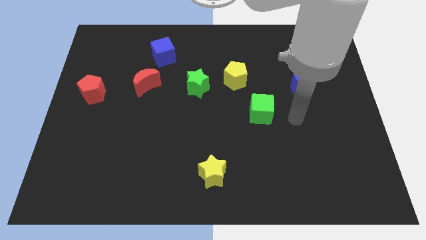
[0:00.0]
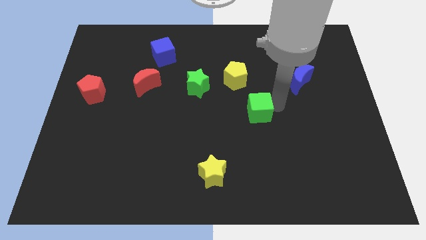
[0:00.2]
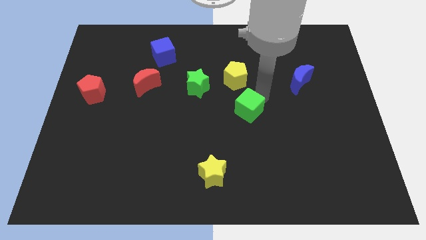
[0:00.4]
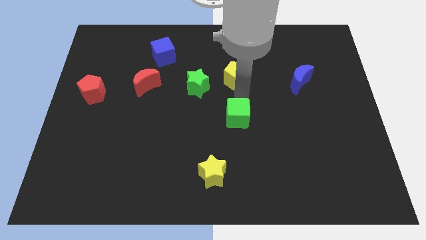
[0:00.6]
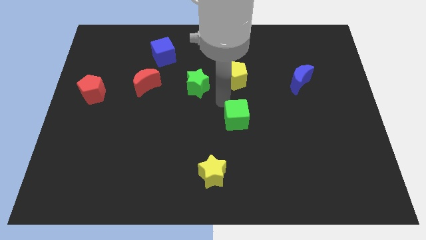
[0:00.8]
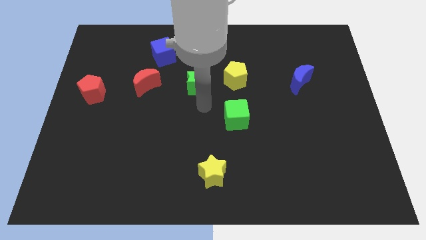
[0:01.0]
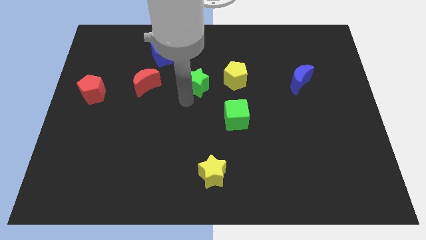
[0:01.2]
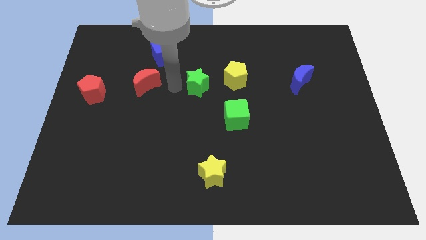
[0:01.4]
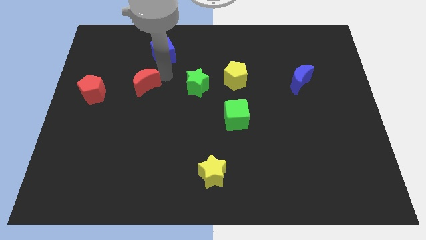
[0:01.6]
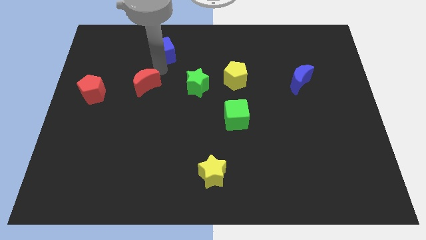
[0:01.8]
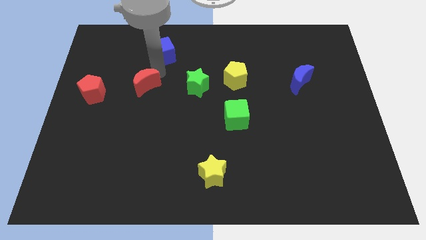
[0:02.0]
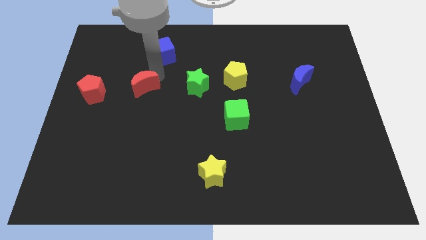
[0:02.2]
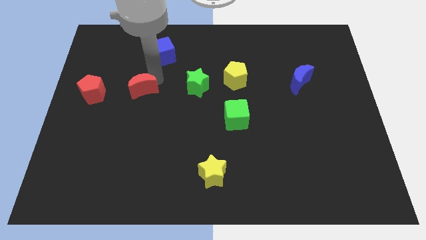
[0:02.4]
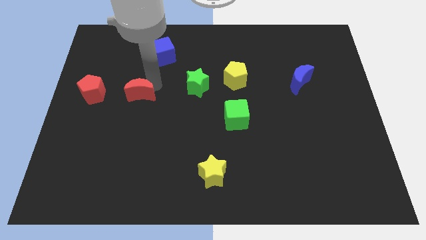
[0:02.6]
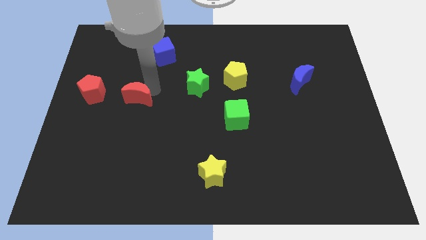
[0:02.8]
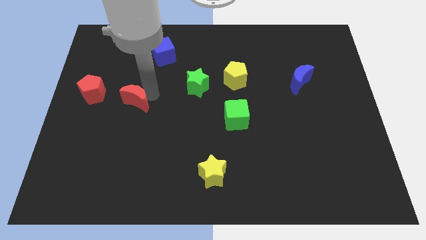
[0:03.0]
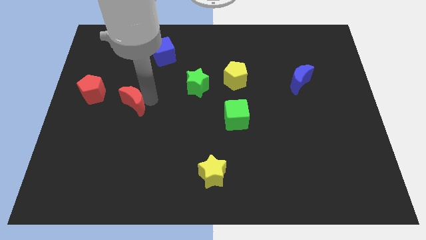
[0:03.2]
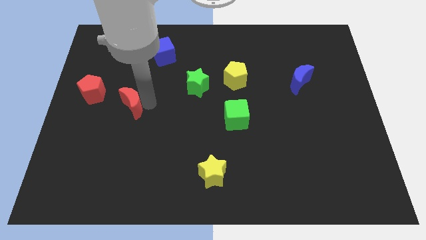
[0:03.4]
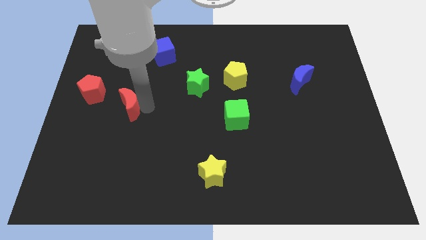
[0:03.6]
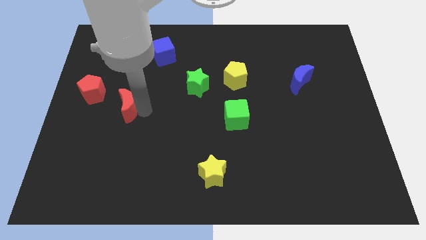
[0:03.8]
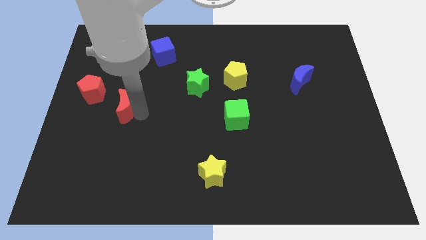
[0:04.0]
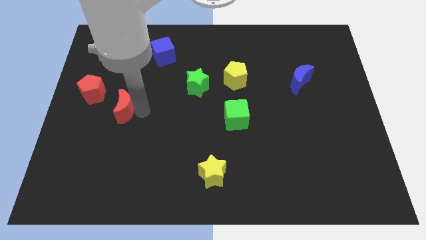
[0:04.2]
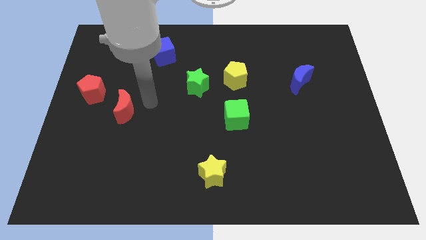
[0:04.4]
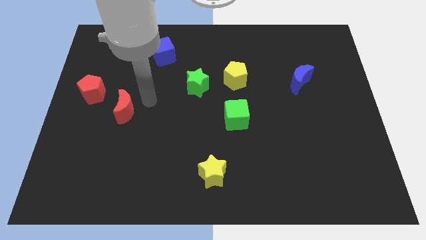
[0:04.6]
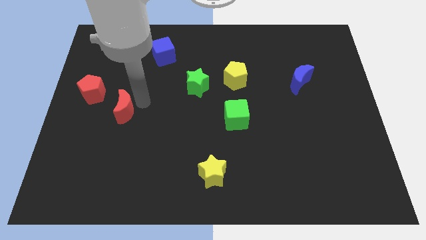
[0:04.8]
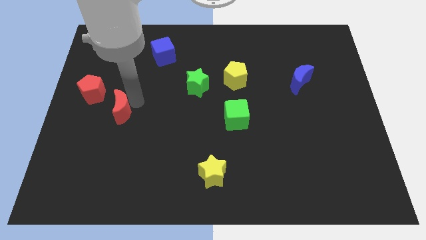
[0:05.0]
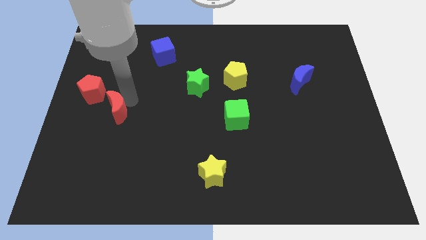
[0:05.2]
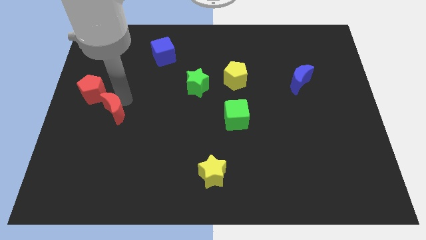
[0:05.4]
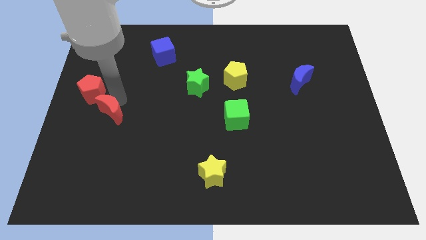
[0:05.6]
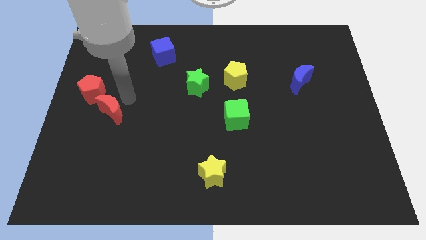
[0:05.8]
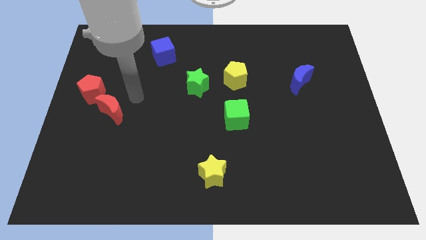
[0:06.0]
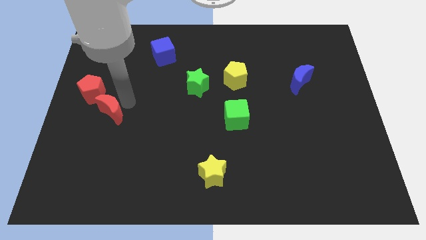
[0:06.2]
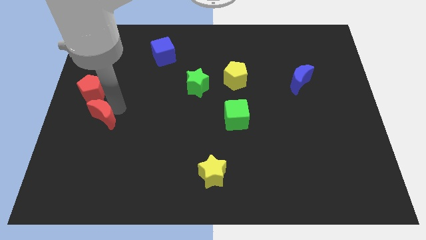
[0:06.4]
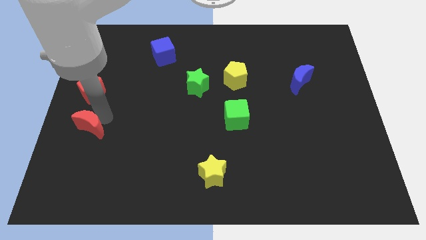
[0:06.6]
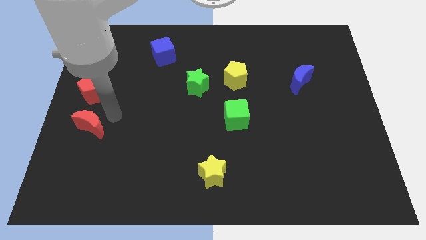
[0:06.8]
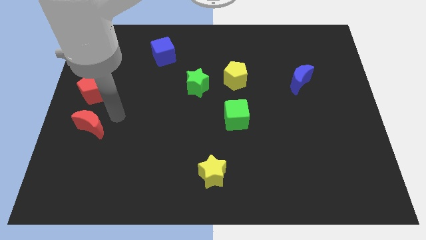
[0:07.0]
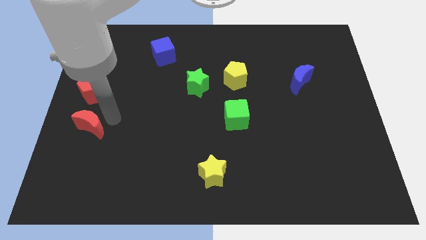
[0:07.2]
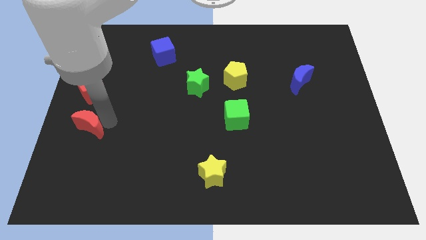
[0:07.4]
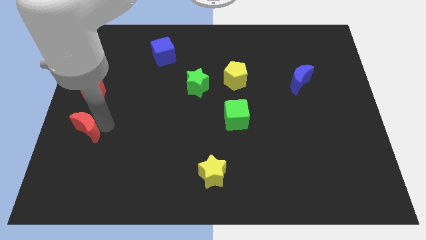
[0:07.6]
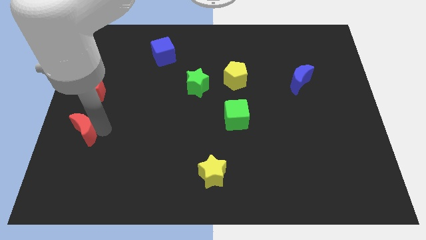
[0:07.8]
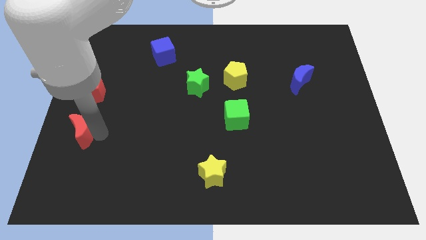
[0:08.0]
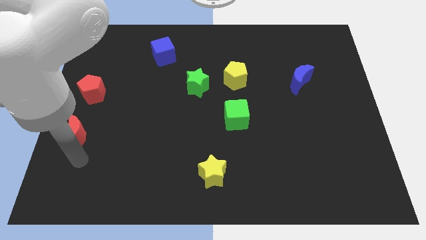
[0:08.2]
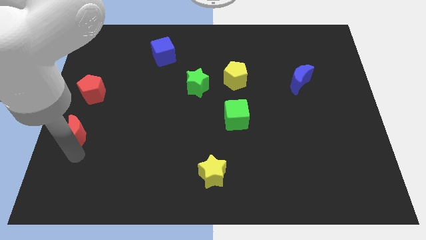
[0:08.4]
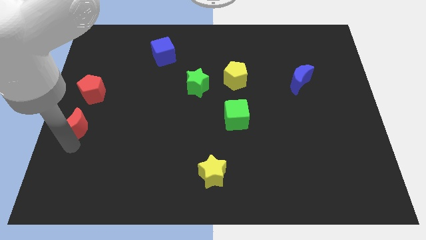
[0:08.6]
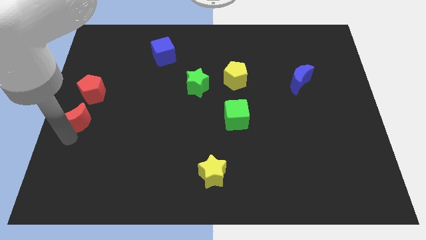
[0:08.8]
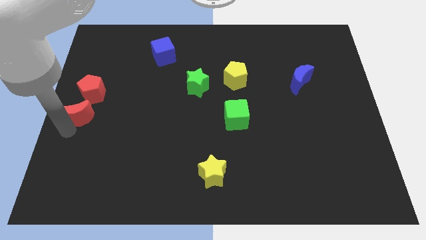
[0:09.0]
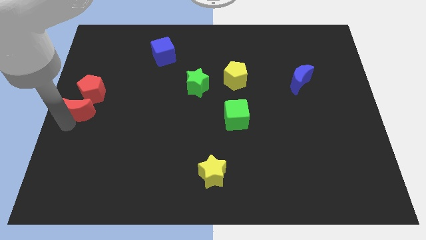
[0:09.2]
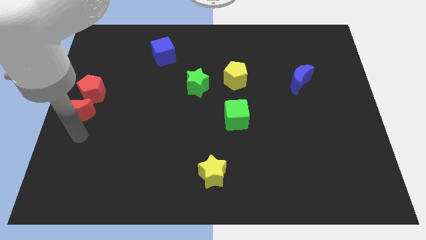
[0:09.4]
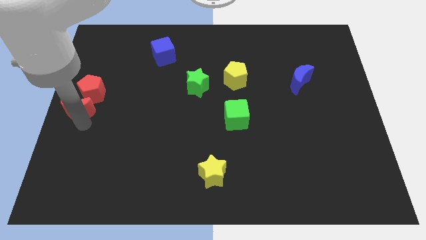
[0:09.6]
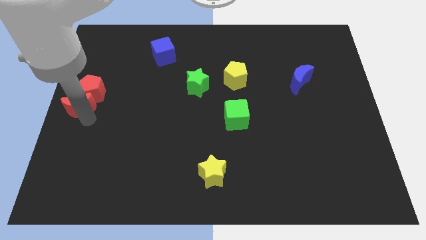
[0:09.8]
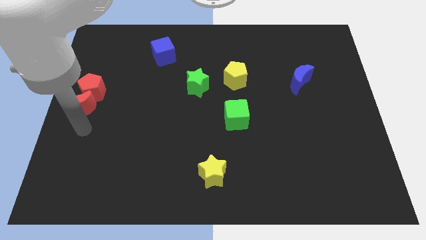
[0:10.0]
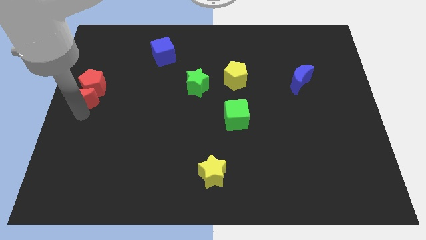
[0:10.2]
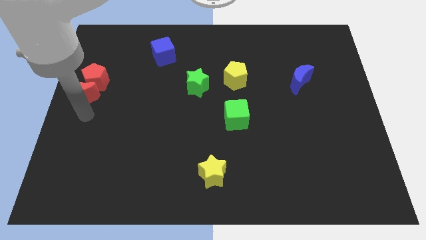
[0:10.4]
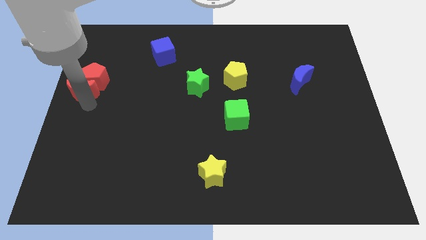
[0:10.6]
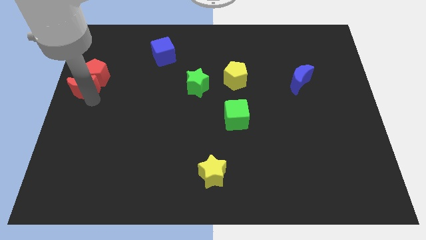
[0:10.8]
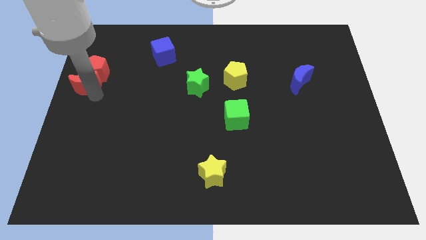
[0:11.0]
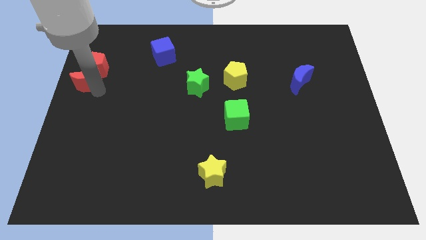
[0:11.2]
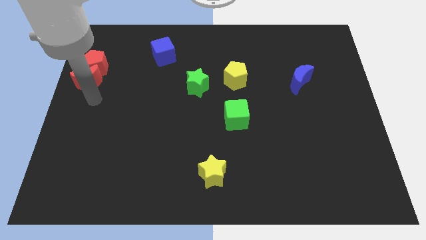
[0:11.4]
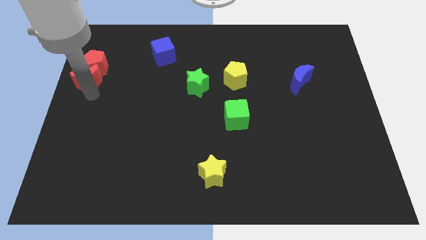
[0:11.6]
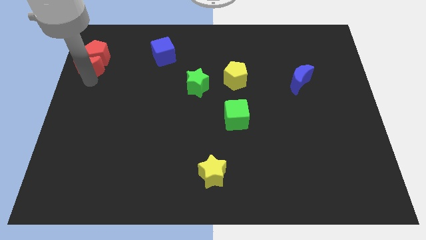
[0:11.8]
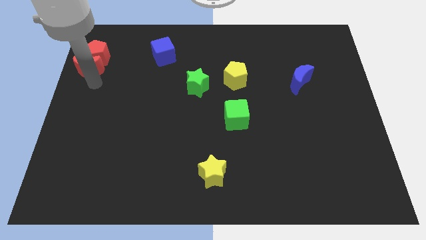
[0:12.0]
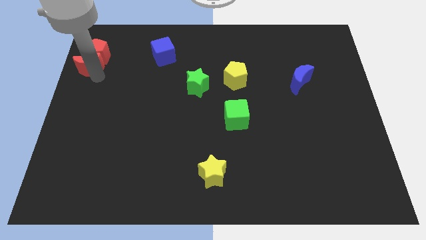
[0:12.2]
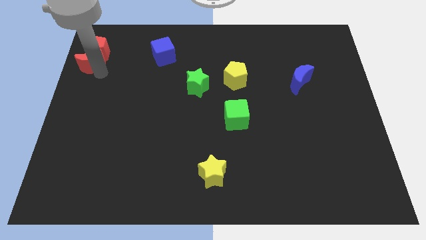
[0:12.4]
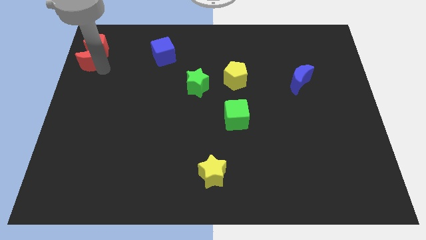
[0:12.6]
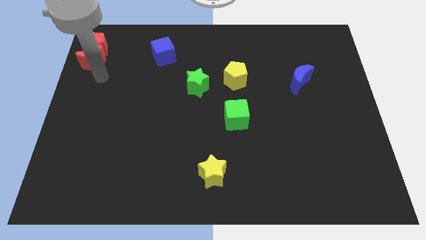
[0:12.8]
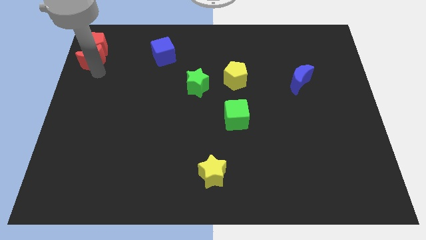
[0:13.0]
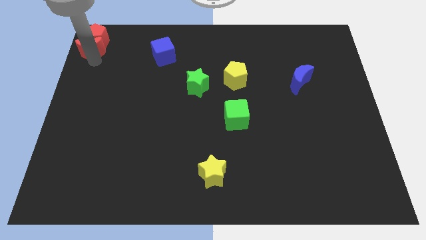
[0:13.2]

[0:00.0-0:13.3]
put the red moon to the top left of the board
